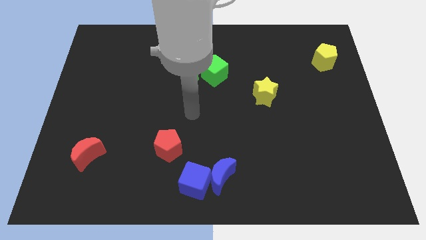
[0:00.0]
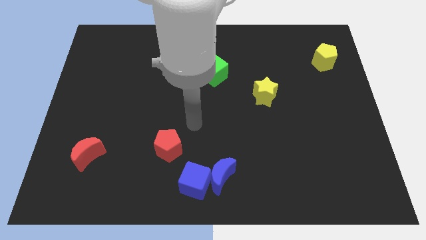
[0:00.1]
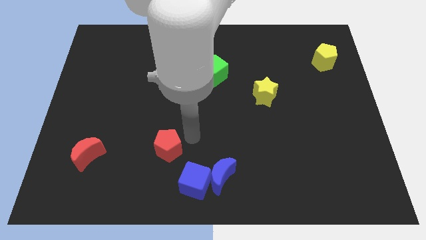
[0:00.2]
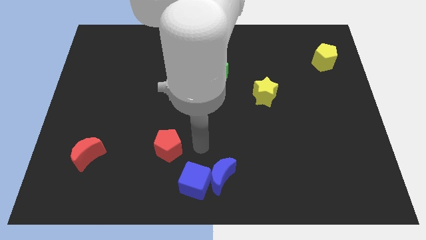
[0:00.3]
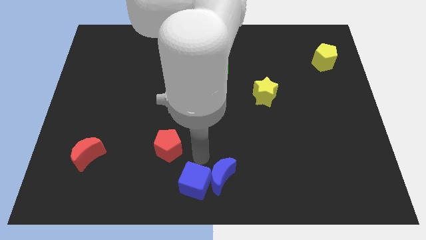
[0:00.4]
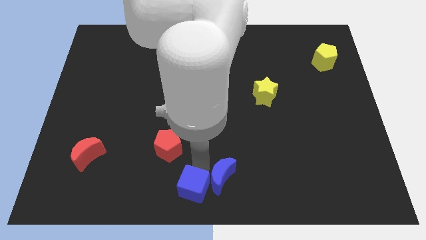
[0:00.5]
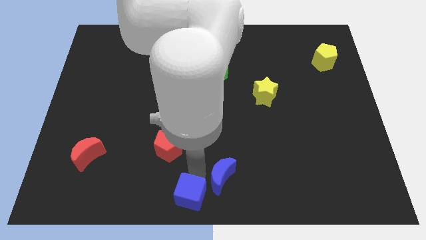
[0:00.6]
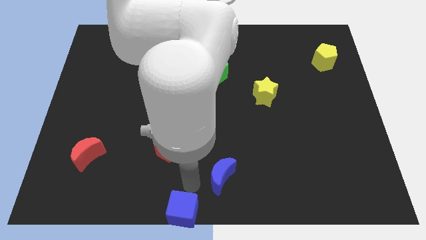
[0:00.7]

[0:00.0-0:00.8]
move the blue moon away from the blue cube

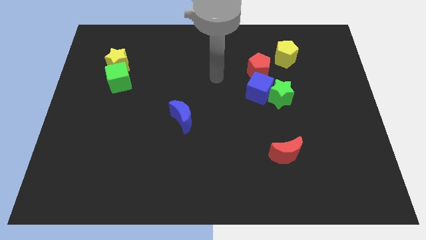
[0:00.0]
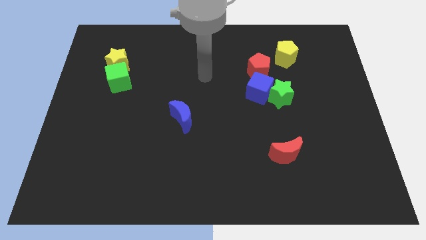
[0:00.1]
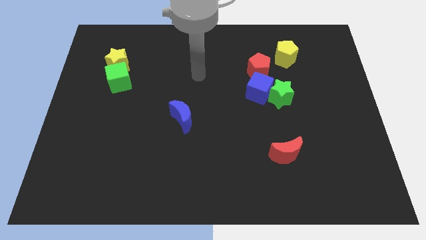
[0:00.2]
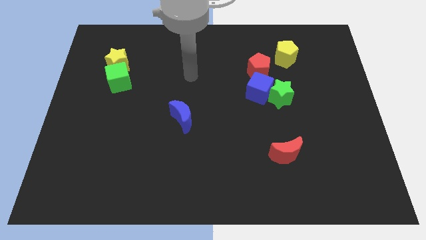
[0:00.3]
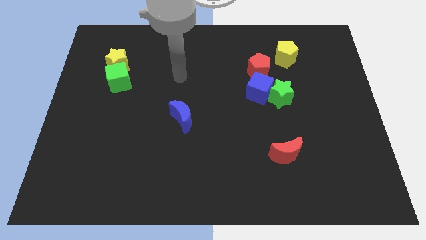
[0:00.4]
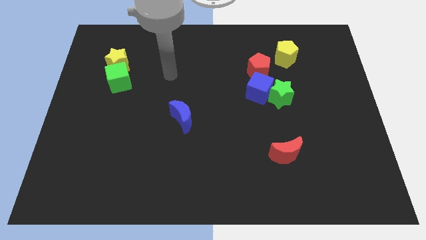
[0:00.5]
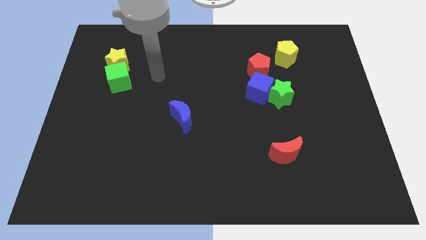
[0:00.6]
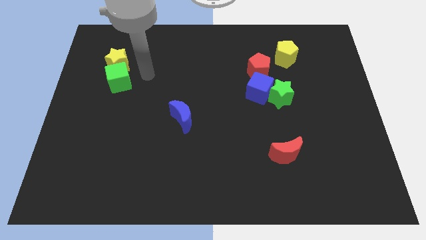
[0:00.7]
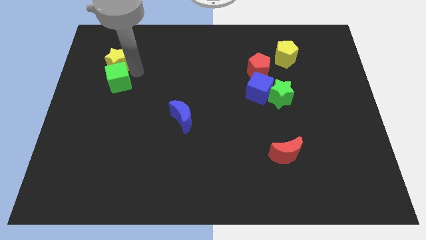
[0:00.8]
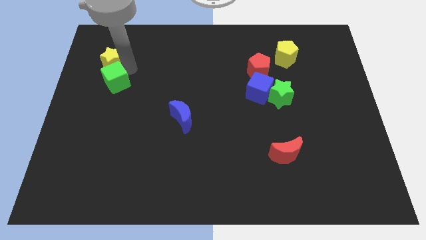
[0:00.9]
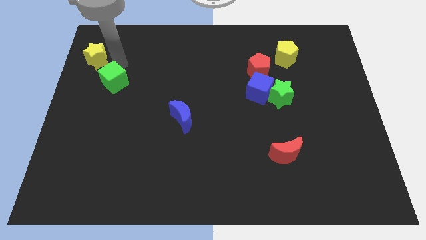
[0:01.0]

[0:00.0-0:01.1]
separate the green cube from the yellow star

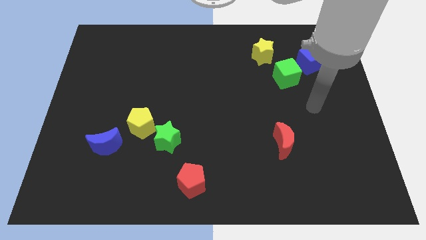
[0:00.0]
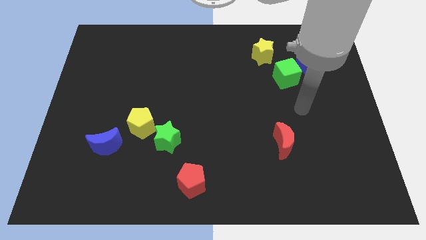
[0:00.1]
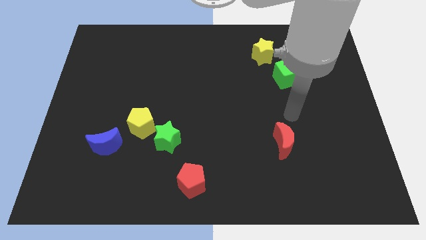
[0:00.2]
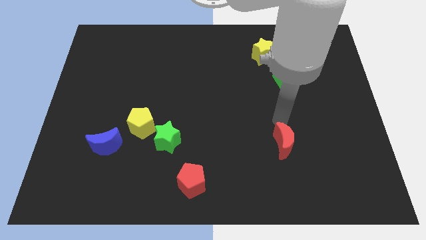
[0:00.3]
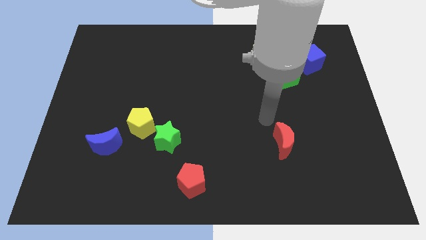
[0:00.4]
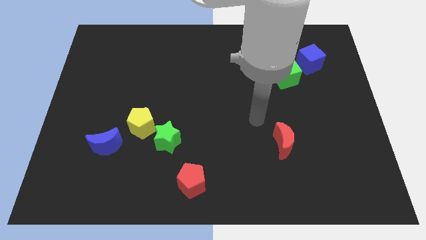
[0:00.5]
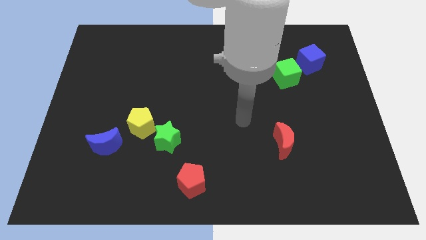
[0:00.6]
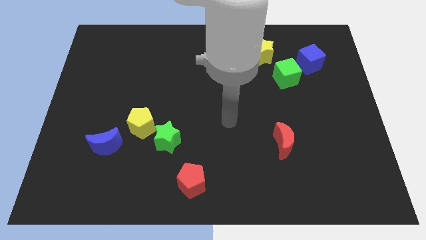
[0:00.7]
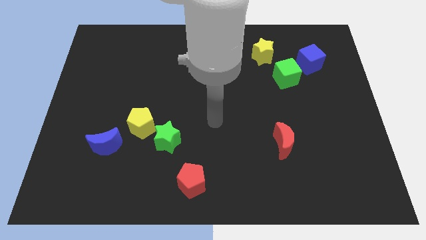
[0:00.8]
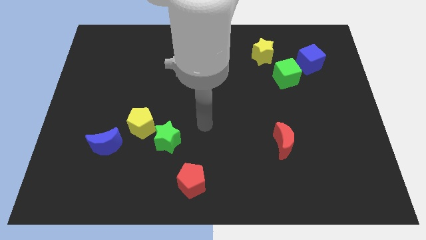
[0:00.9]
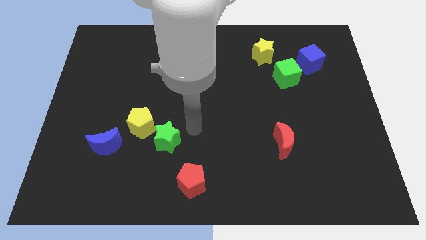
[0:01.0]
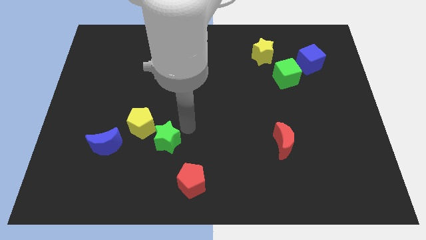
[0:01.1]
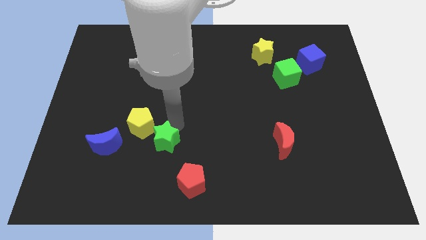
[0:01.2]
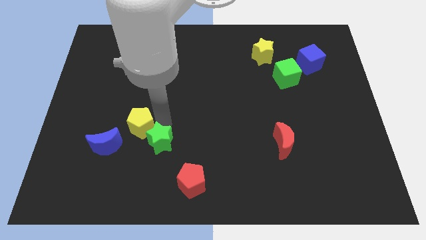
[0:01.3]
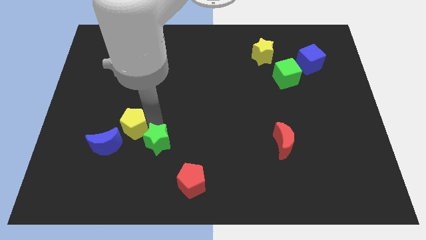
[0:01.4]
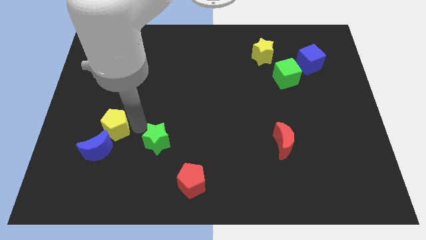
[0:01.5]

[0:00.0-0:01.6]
move the green star away from the yellow pentagon

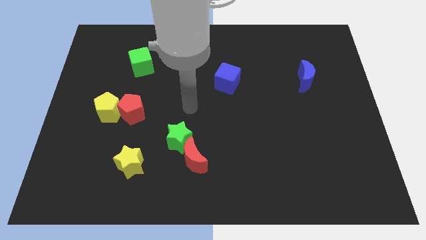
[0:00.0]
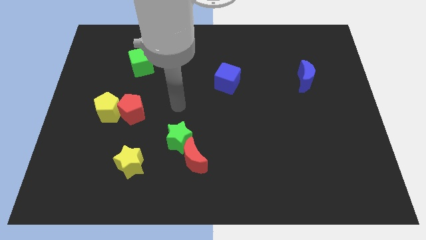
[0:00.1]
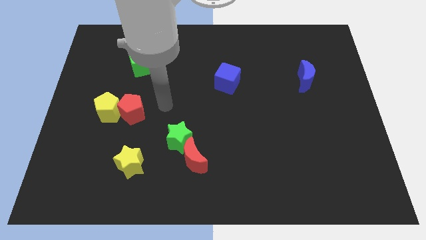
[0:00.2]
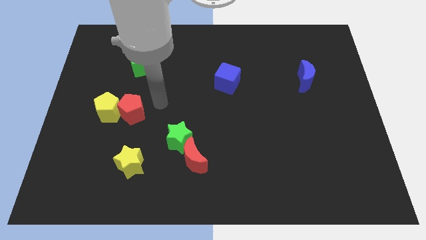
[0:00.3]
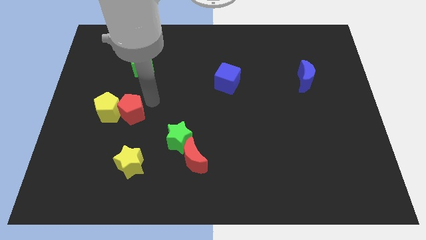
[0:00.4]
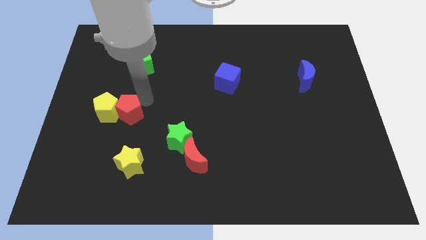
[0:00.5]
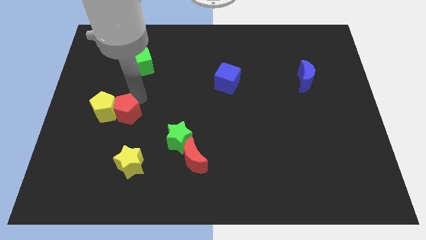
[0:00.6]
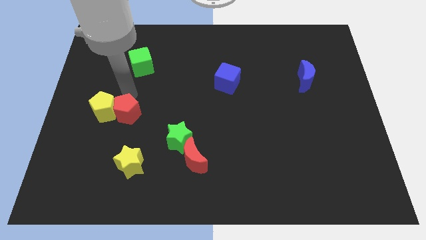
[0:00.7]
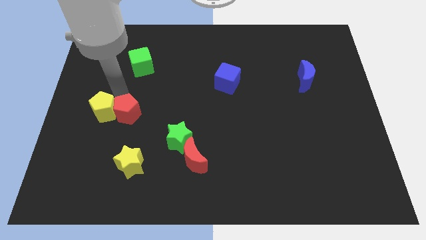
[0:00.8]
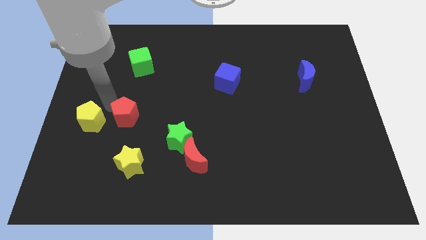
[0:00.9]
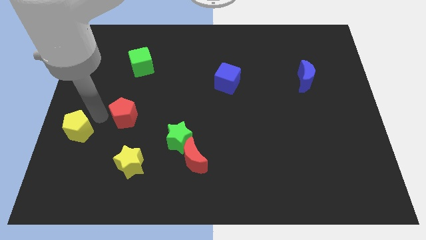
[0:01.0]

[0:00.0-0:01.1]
pull the red pentagon apart from the yellow pentagon

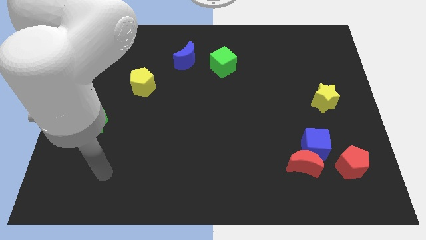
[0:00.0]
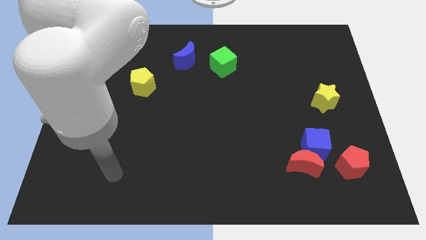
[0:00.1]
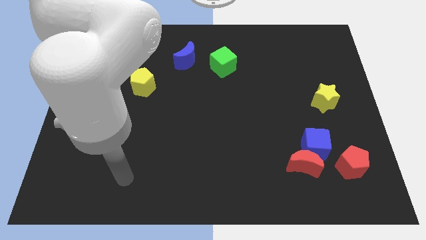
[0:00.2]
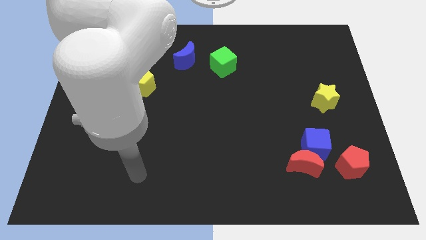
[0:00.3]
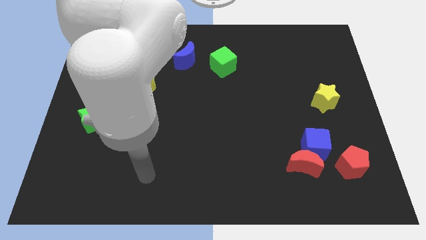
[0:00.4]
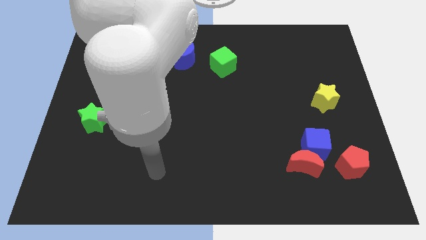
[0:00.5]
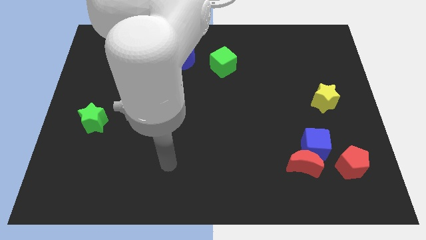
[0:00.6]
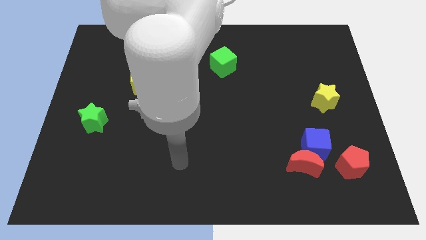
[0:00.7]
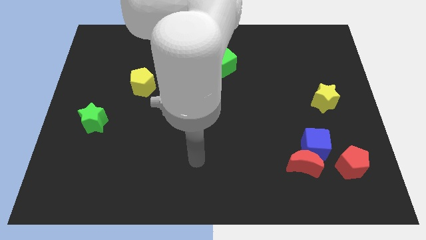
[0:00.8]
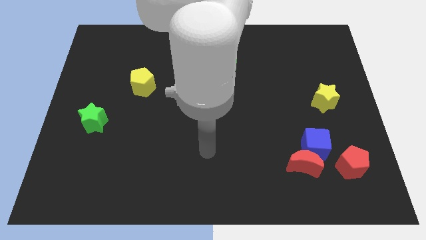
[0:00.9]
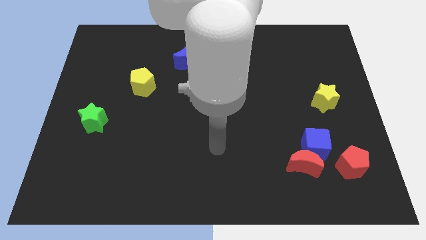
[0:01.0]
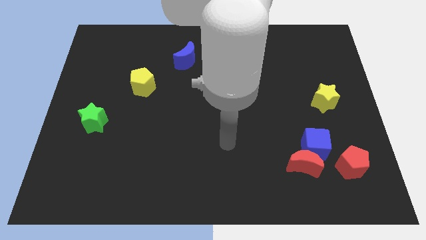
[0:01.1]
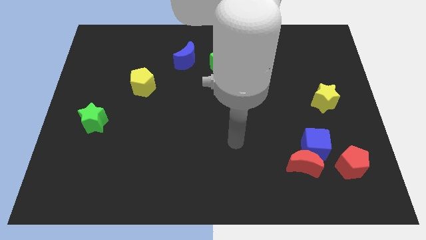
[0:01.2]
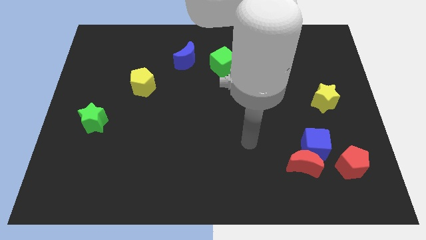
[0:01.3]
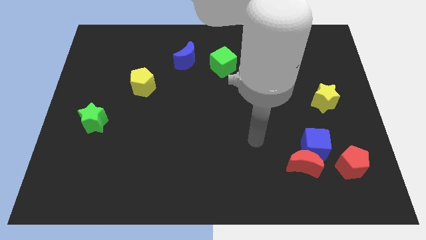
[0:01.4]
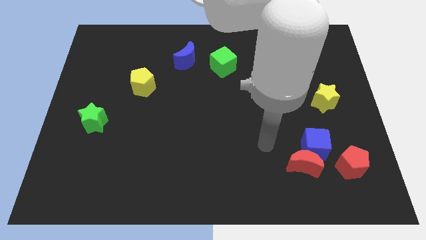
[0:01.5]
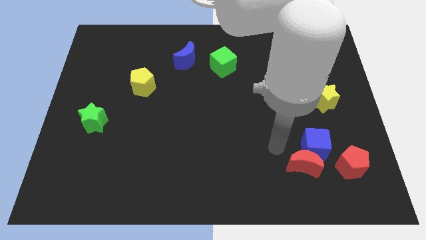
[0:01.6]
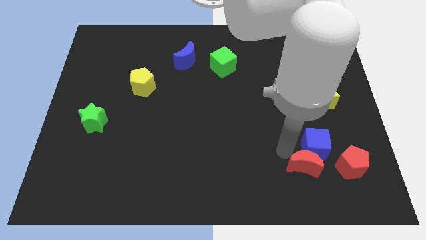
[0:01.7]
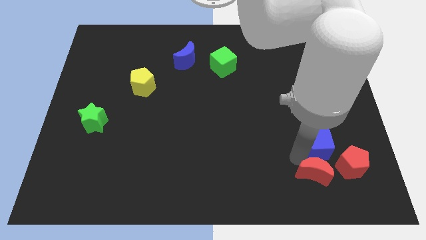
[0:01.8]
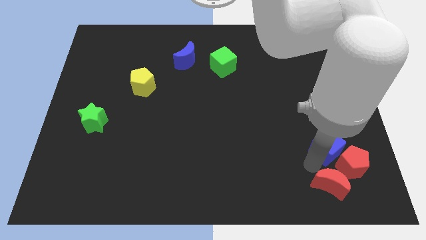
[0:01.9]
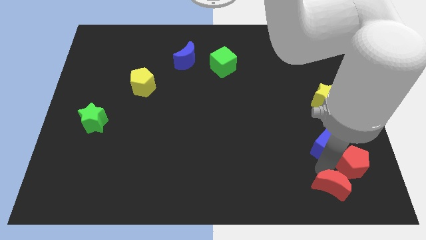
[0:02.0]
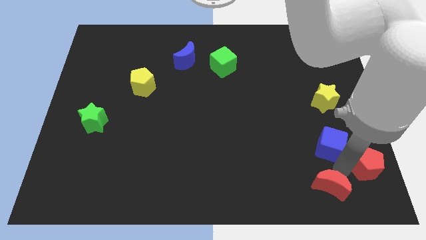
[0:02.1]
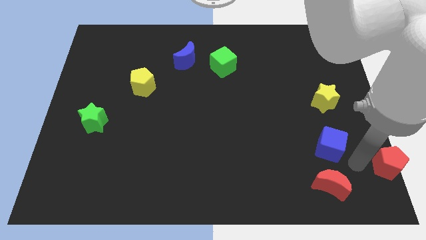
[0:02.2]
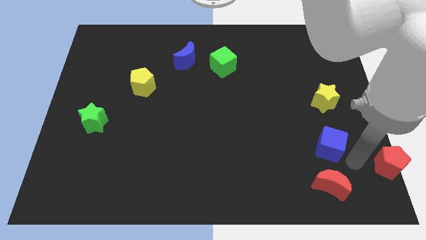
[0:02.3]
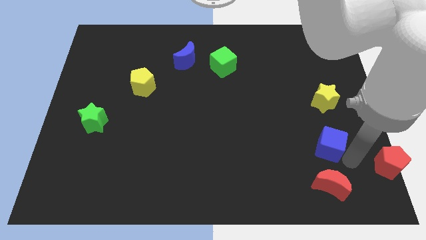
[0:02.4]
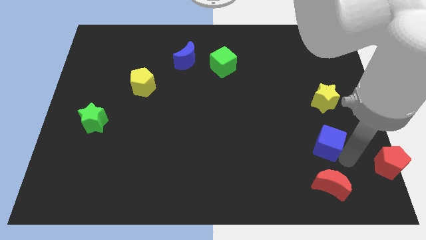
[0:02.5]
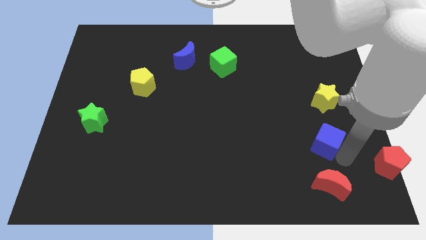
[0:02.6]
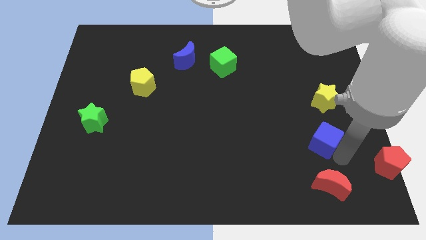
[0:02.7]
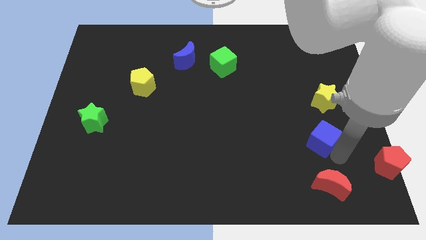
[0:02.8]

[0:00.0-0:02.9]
separate the blue cube from the red moon and red pentagon

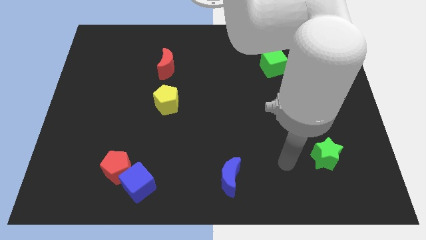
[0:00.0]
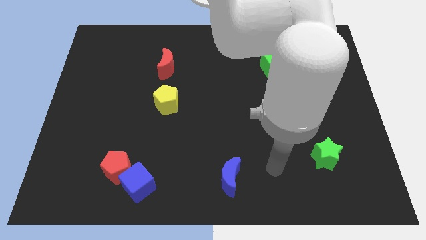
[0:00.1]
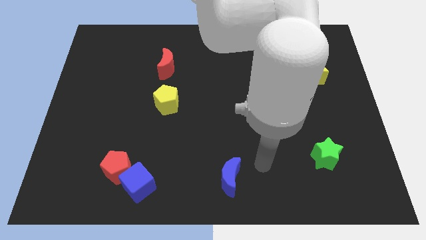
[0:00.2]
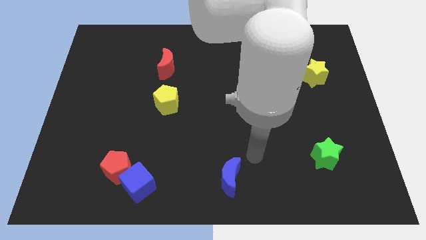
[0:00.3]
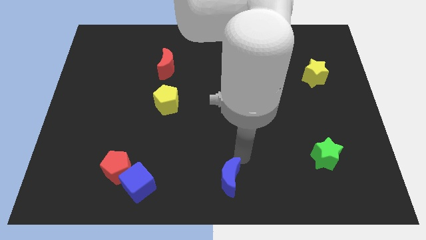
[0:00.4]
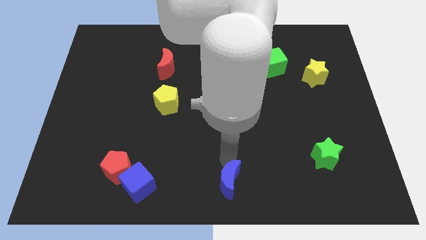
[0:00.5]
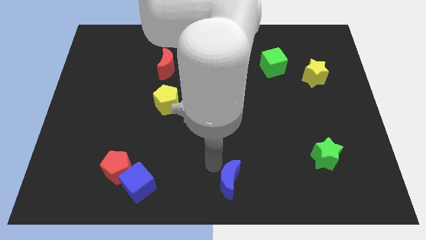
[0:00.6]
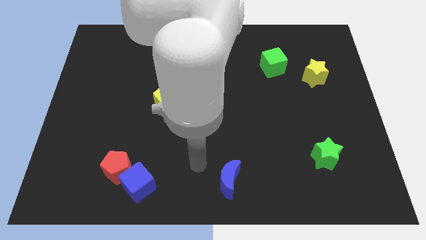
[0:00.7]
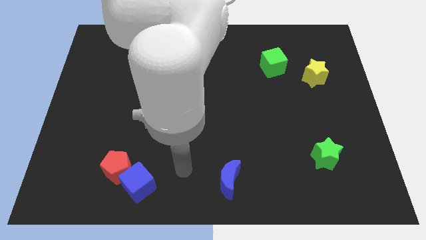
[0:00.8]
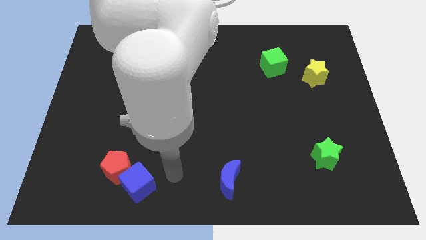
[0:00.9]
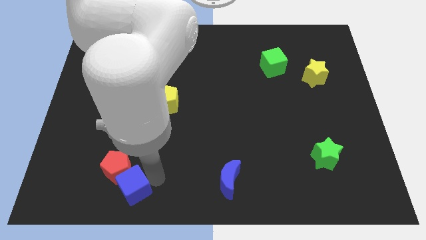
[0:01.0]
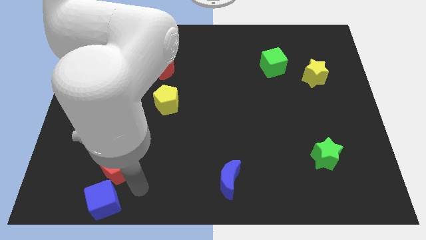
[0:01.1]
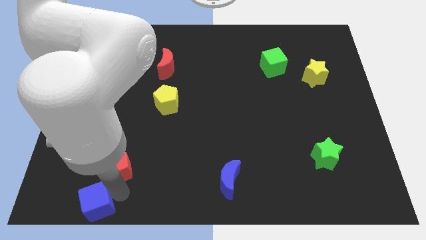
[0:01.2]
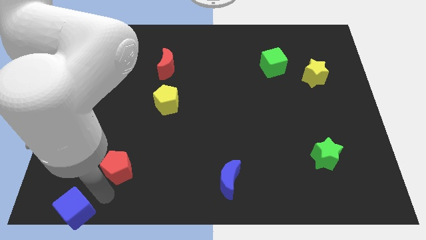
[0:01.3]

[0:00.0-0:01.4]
move the red pentagon away from the blue cube

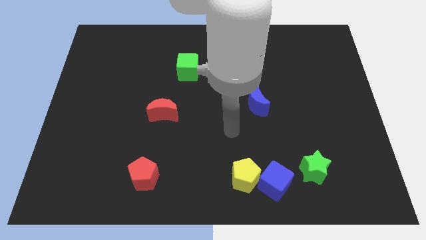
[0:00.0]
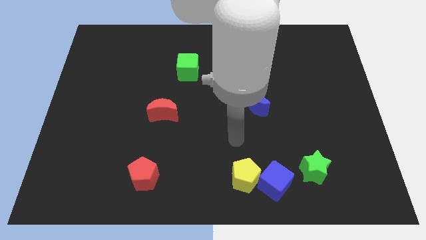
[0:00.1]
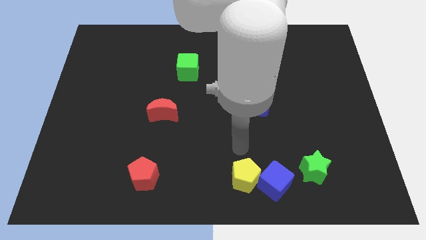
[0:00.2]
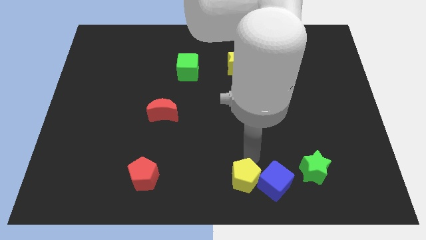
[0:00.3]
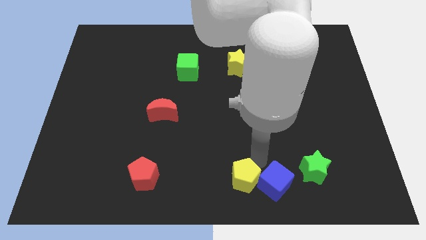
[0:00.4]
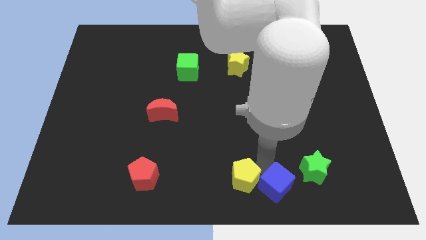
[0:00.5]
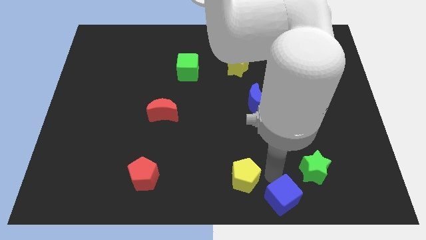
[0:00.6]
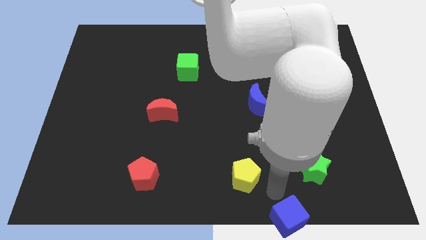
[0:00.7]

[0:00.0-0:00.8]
move the yellow pentagon away from the blue cube
